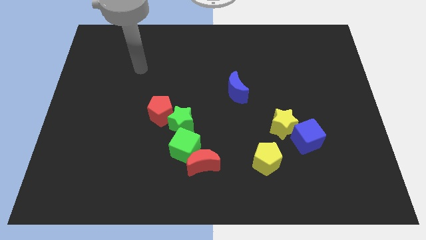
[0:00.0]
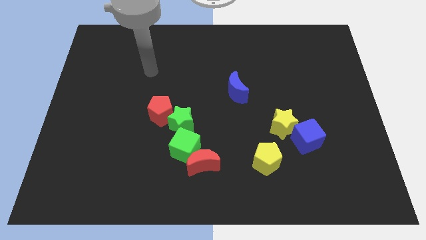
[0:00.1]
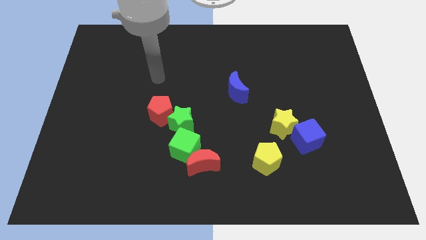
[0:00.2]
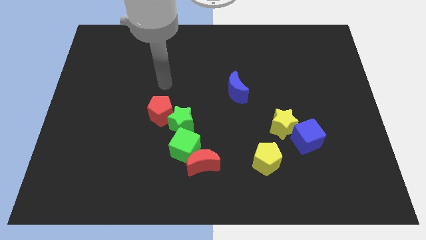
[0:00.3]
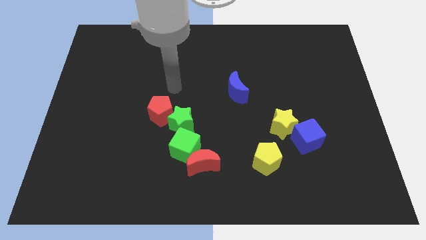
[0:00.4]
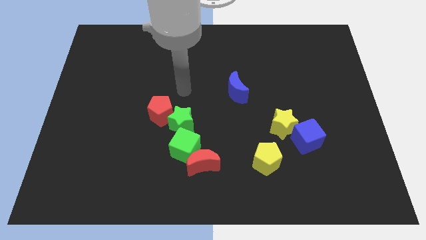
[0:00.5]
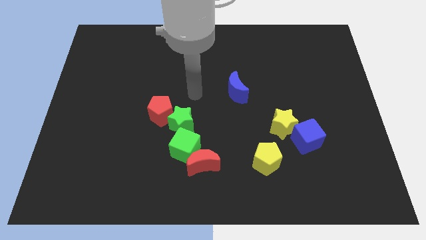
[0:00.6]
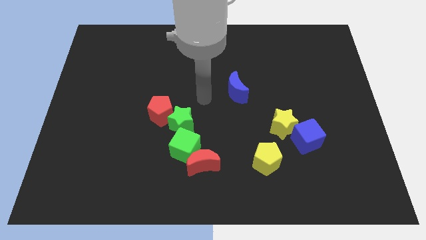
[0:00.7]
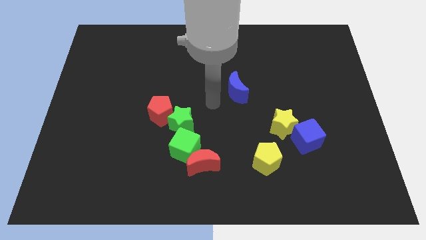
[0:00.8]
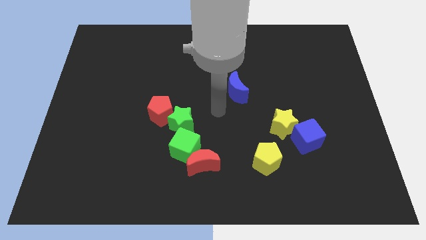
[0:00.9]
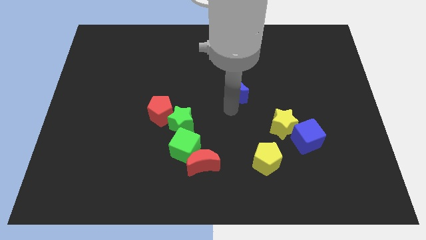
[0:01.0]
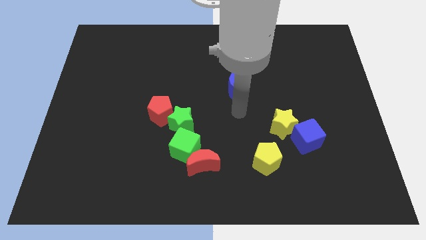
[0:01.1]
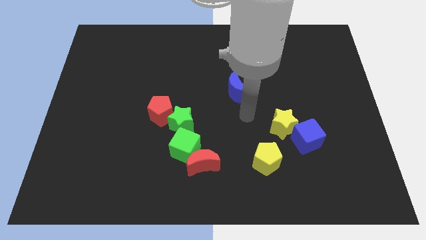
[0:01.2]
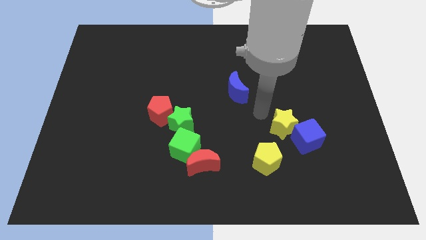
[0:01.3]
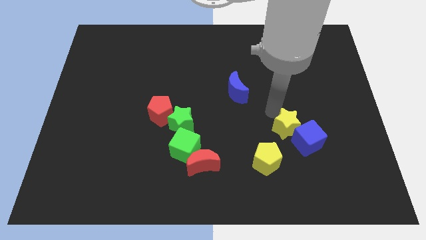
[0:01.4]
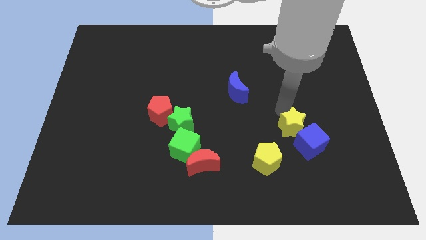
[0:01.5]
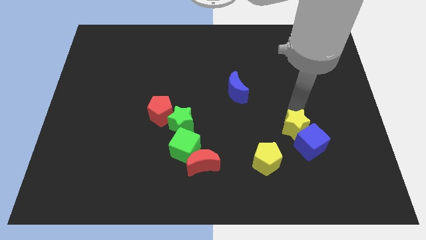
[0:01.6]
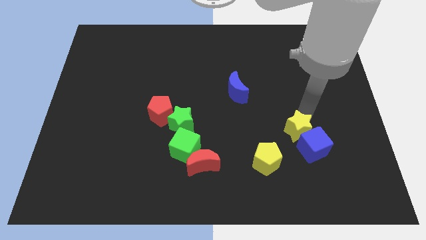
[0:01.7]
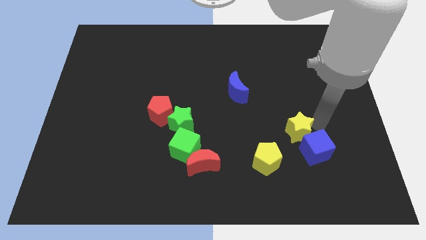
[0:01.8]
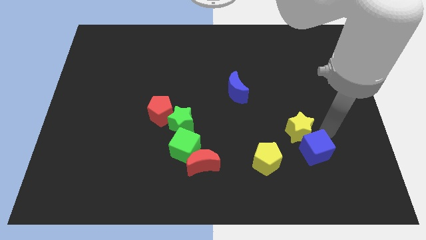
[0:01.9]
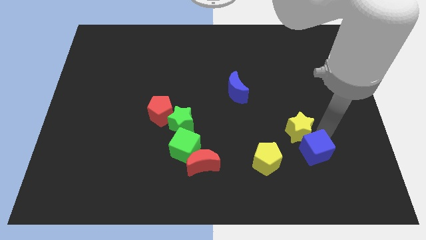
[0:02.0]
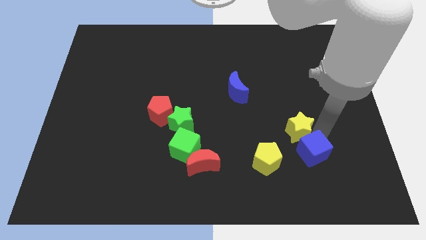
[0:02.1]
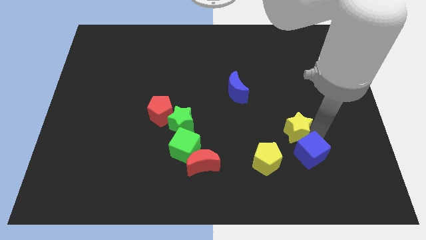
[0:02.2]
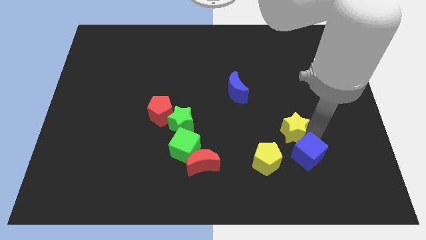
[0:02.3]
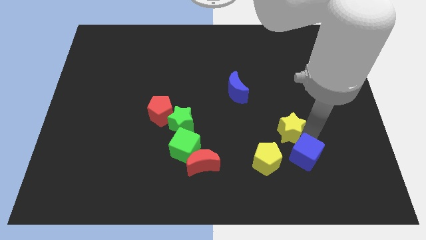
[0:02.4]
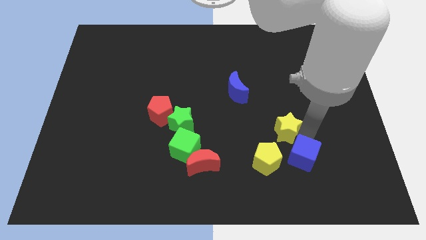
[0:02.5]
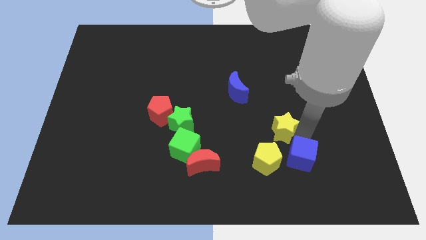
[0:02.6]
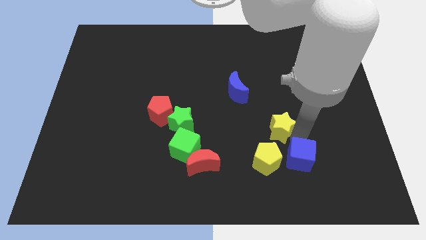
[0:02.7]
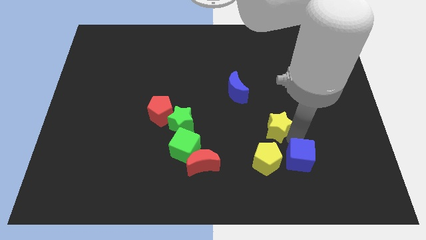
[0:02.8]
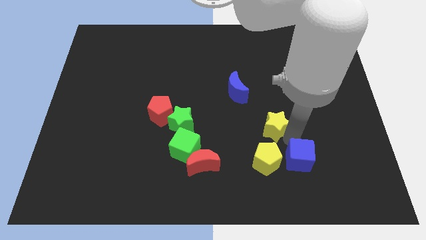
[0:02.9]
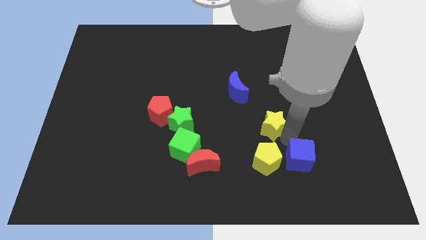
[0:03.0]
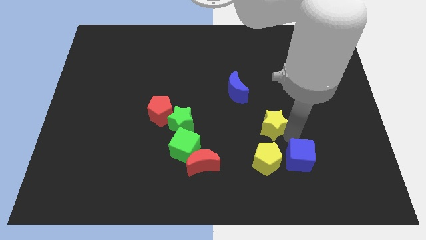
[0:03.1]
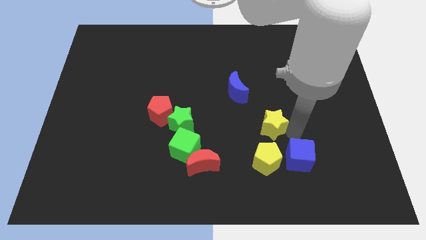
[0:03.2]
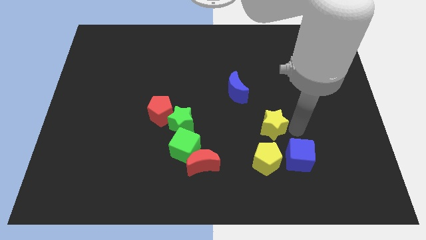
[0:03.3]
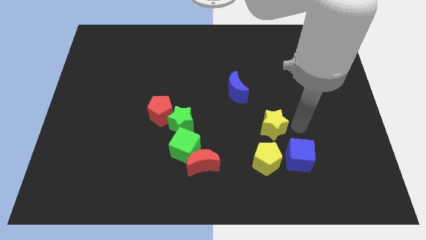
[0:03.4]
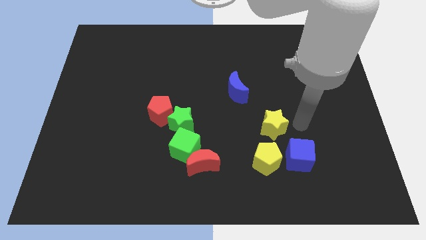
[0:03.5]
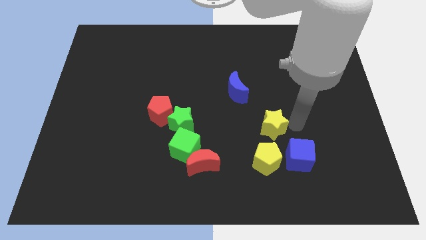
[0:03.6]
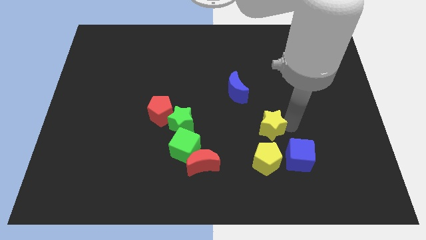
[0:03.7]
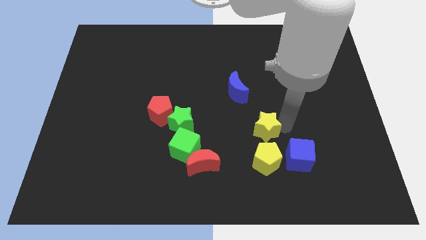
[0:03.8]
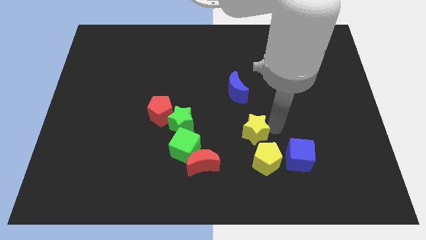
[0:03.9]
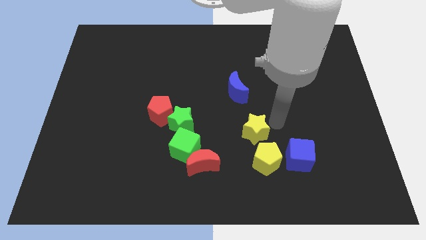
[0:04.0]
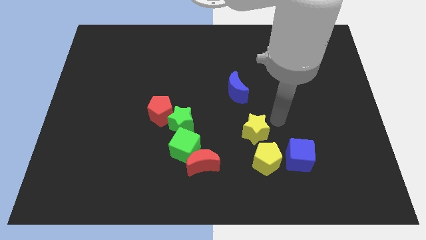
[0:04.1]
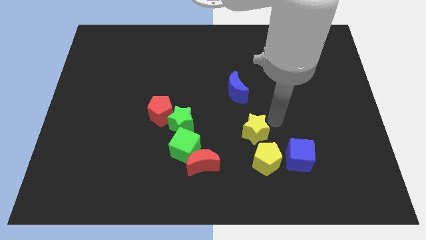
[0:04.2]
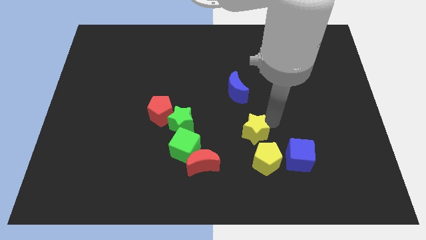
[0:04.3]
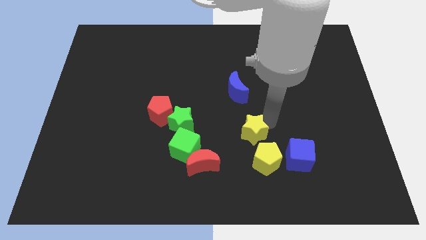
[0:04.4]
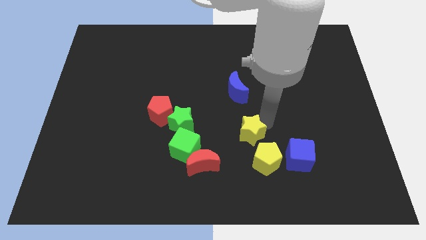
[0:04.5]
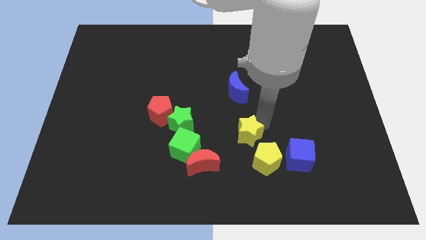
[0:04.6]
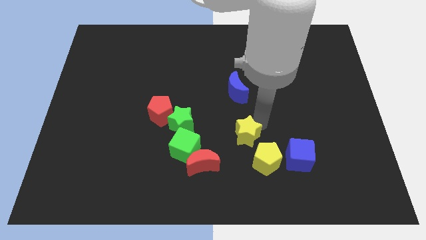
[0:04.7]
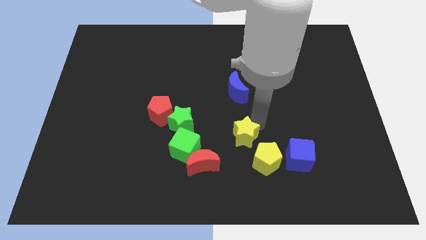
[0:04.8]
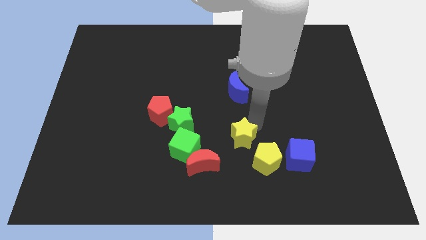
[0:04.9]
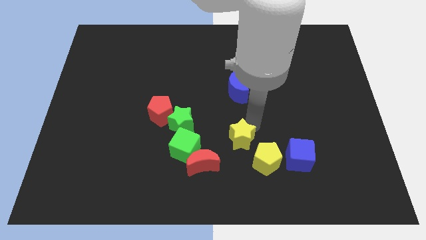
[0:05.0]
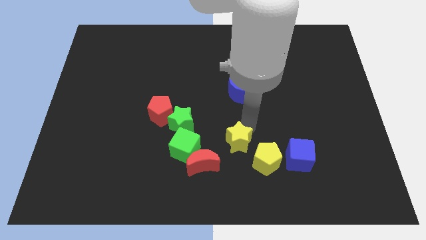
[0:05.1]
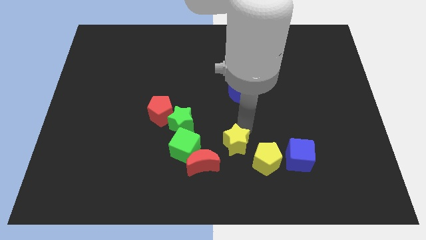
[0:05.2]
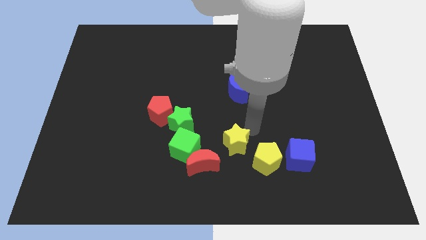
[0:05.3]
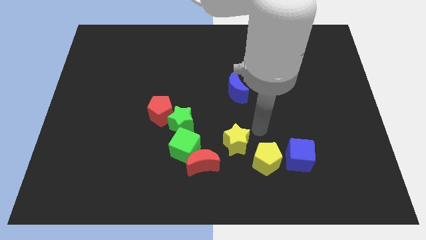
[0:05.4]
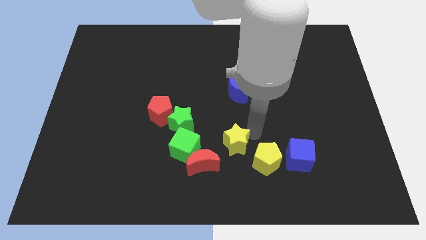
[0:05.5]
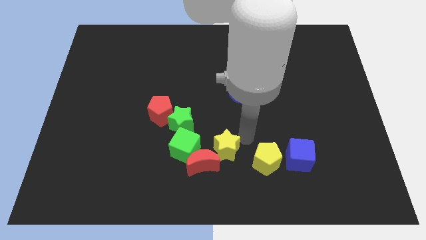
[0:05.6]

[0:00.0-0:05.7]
push the yellow star close to the red moon

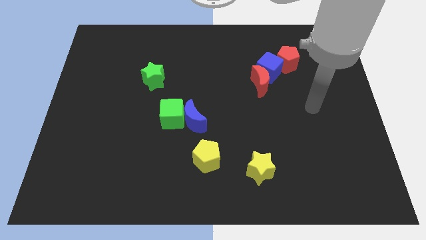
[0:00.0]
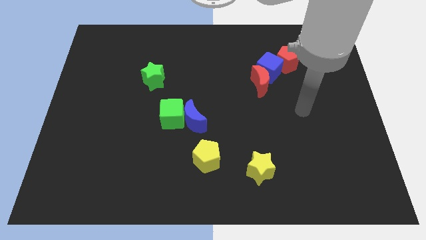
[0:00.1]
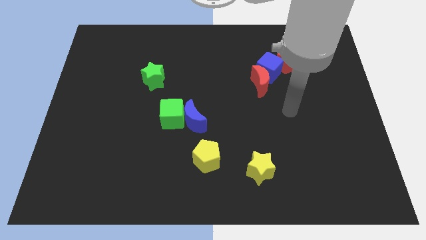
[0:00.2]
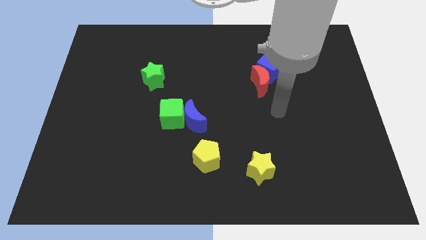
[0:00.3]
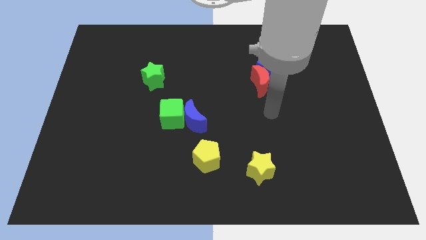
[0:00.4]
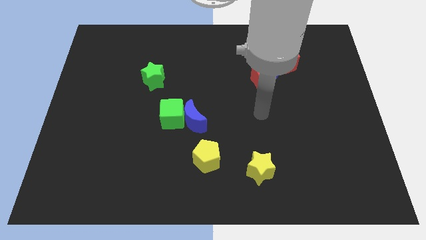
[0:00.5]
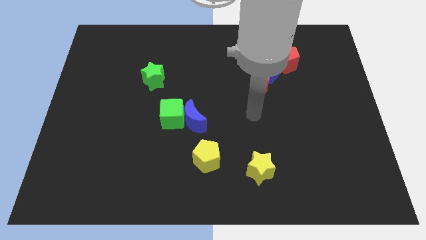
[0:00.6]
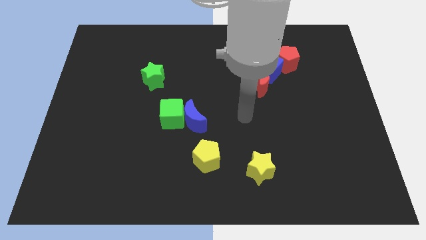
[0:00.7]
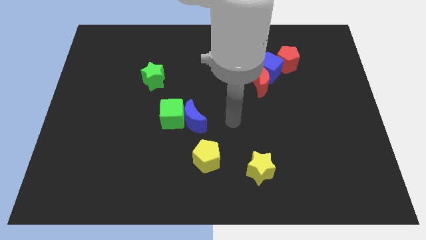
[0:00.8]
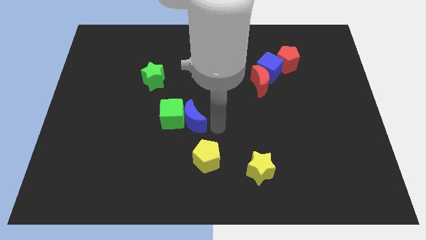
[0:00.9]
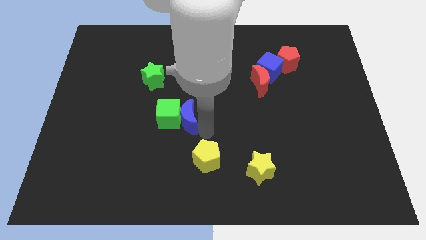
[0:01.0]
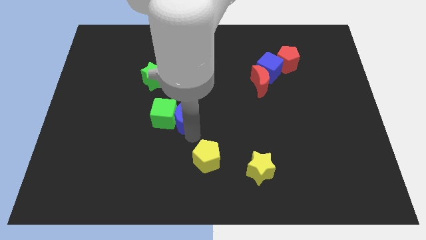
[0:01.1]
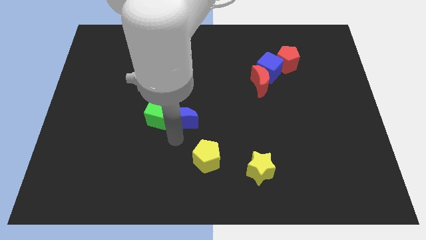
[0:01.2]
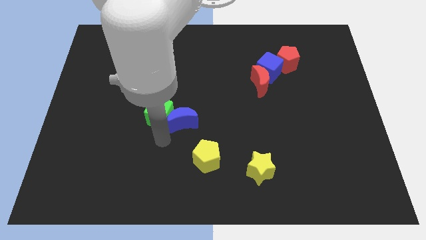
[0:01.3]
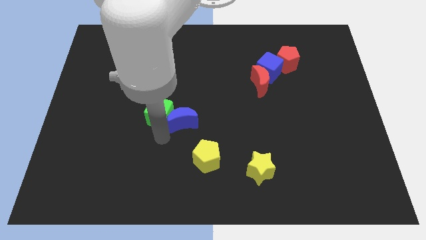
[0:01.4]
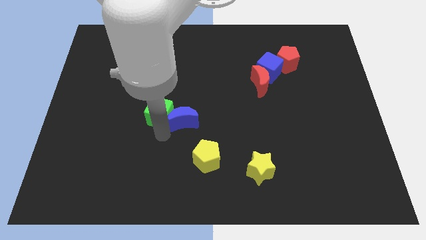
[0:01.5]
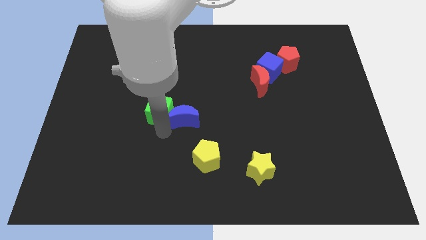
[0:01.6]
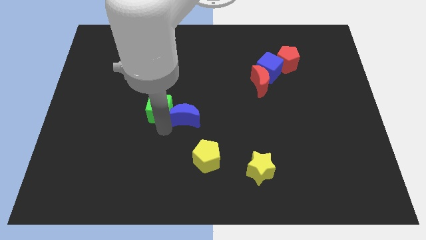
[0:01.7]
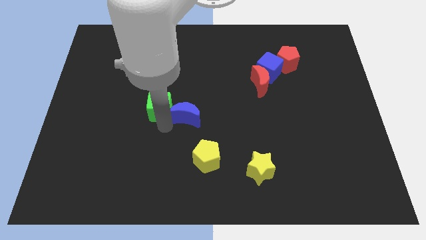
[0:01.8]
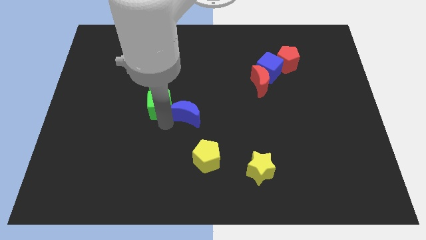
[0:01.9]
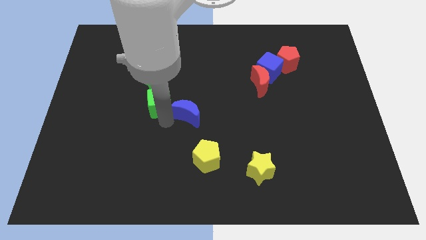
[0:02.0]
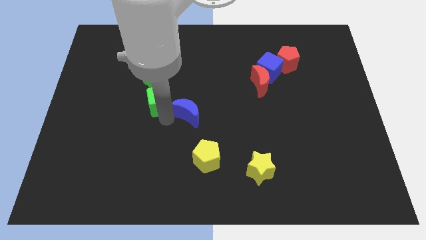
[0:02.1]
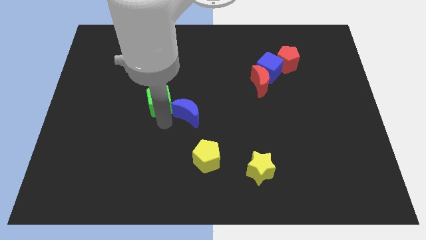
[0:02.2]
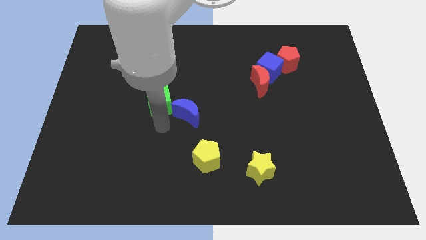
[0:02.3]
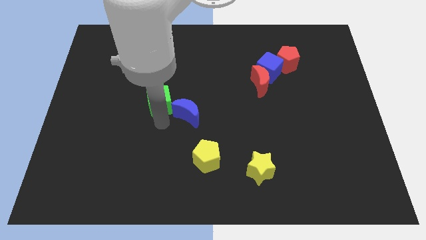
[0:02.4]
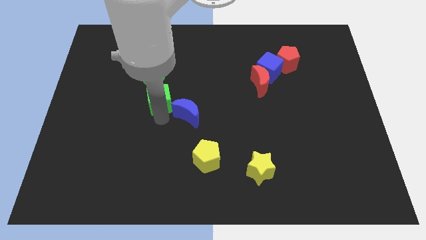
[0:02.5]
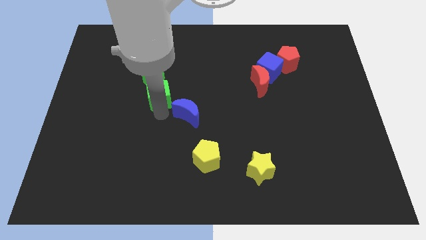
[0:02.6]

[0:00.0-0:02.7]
push the green cube towards the green star
